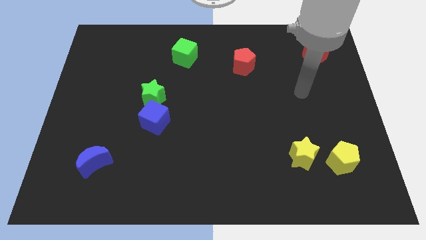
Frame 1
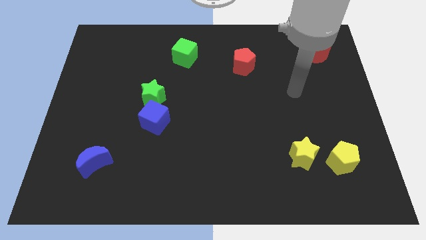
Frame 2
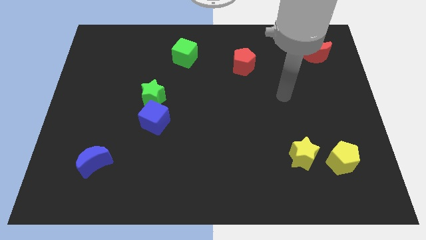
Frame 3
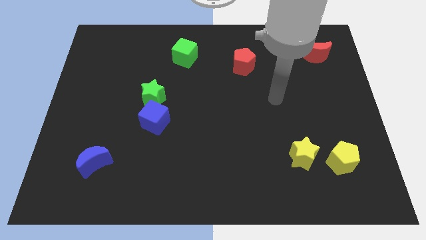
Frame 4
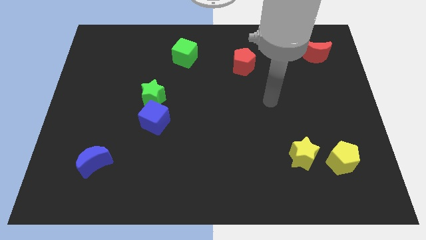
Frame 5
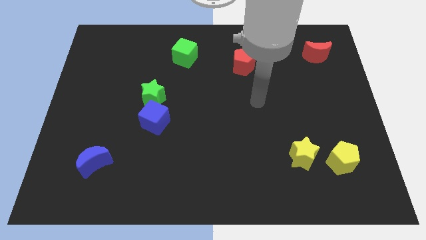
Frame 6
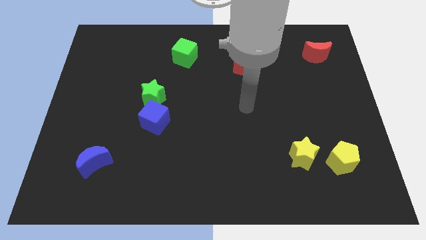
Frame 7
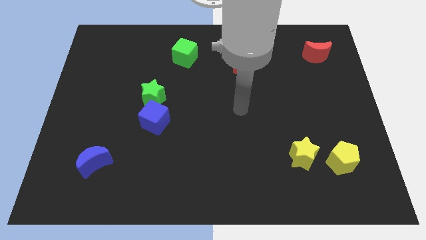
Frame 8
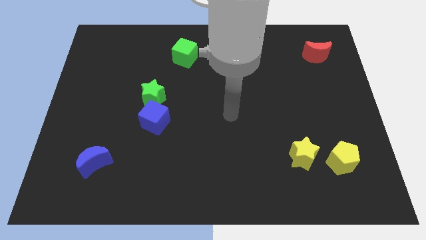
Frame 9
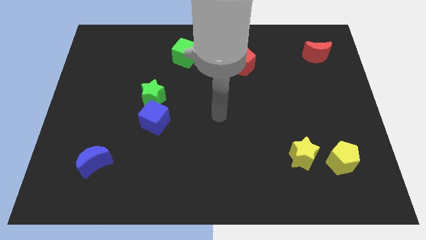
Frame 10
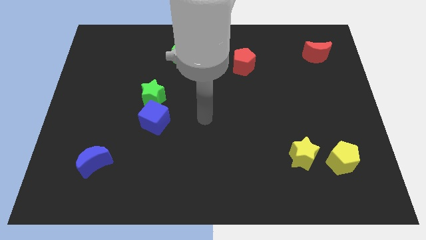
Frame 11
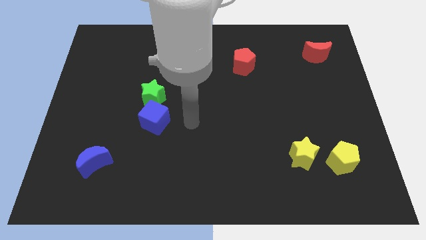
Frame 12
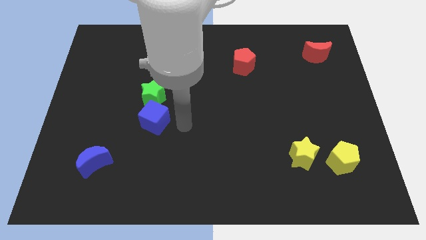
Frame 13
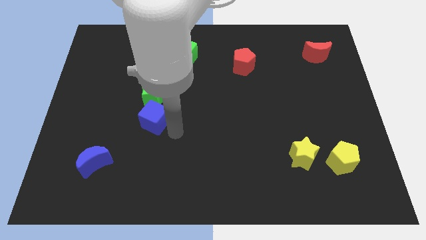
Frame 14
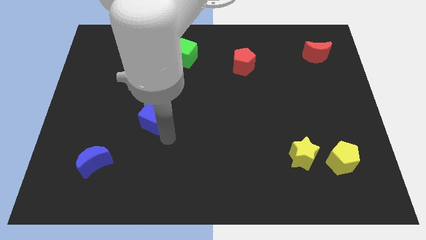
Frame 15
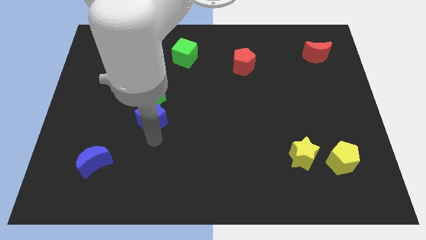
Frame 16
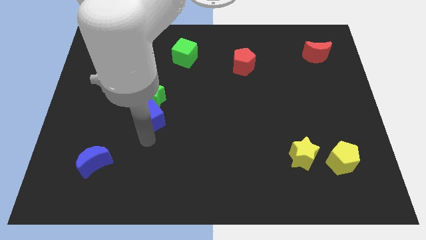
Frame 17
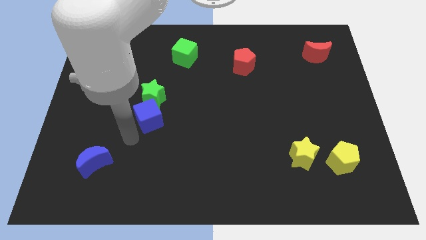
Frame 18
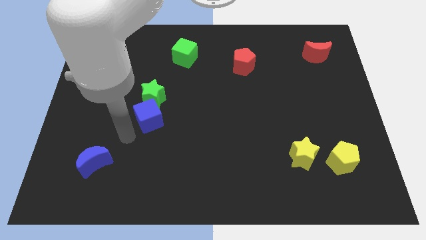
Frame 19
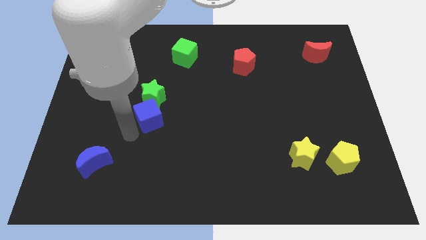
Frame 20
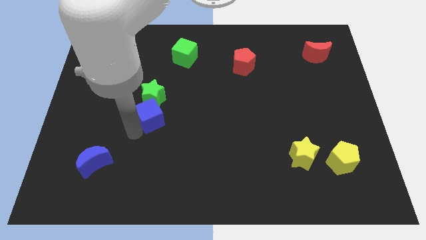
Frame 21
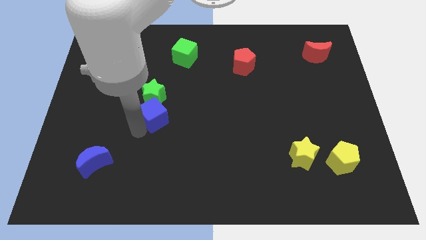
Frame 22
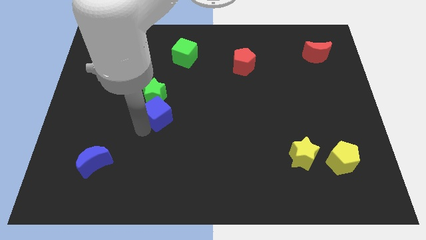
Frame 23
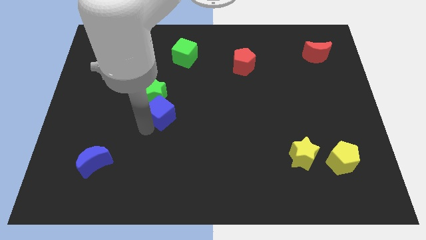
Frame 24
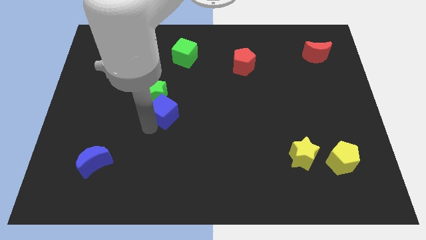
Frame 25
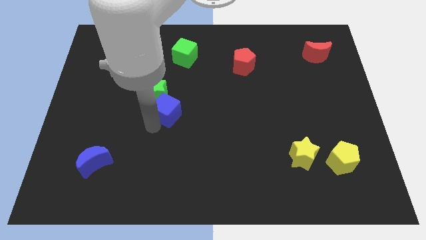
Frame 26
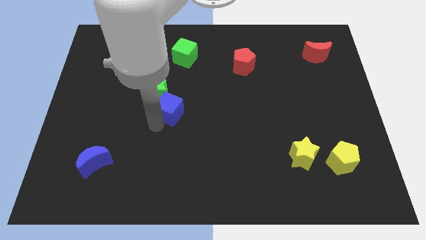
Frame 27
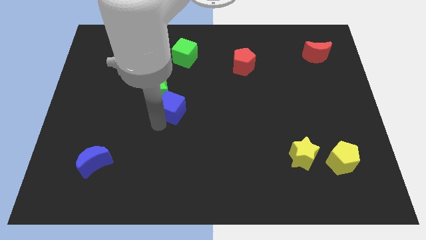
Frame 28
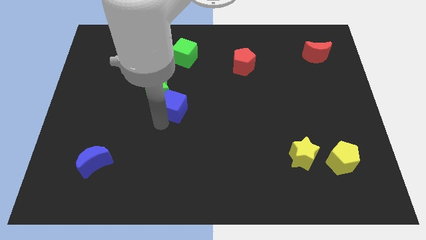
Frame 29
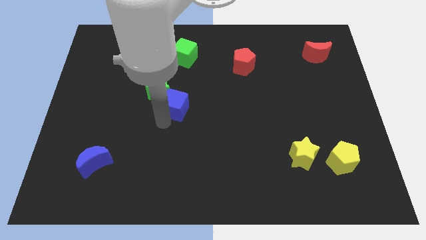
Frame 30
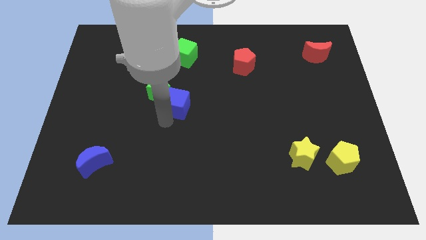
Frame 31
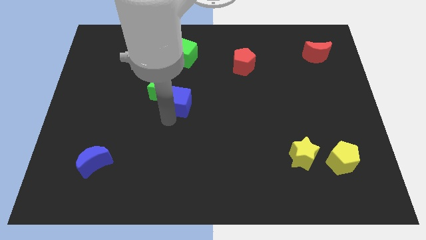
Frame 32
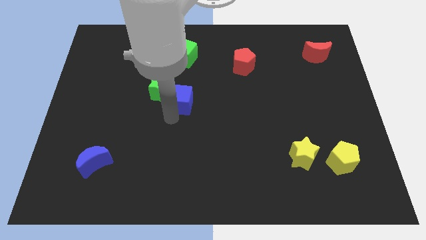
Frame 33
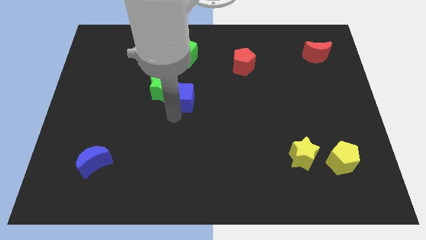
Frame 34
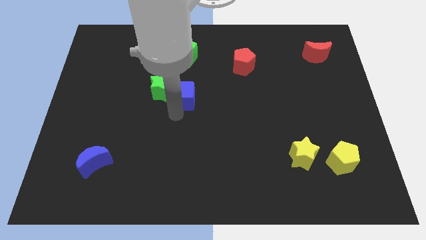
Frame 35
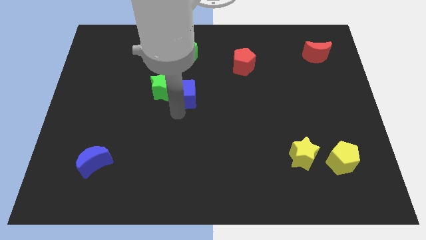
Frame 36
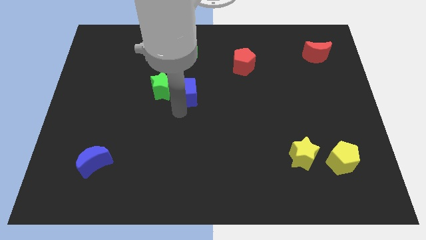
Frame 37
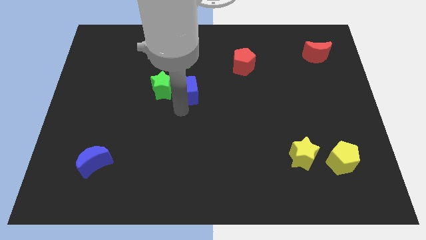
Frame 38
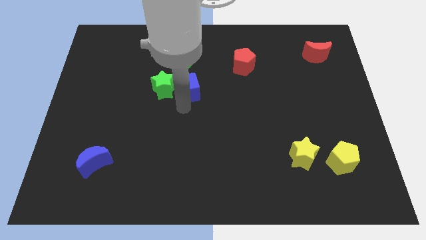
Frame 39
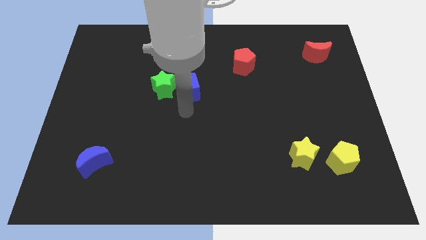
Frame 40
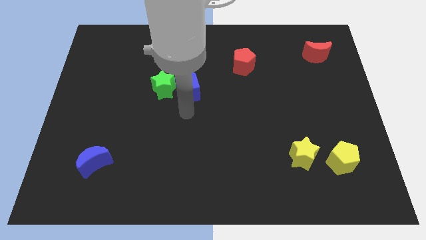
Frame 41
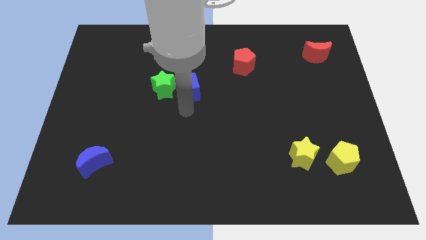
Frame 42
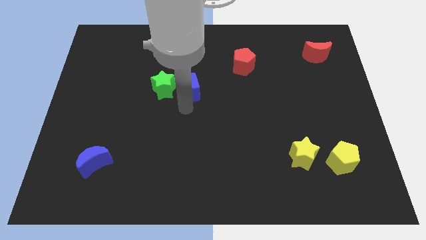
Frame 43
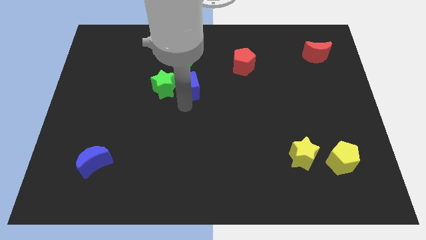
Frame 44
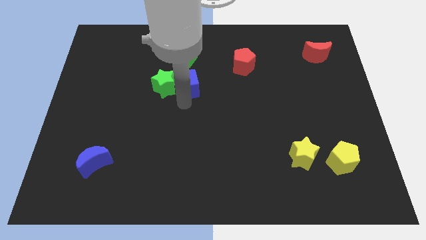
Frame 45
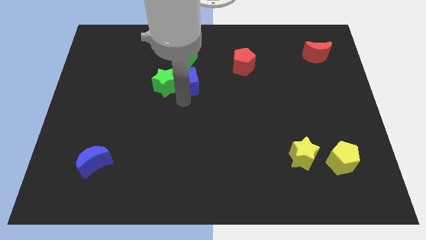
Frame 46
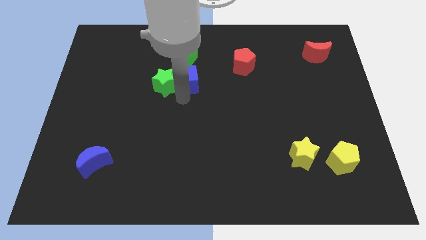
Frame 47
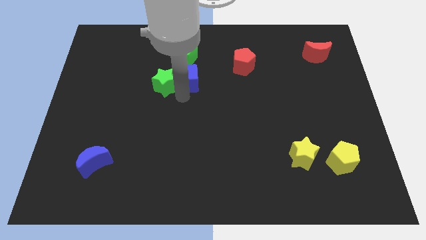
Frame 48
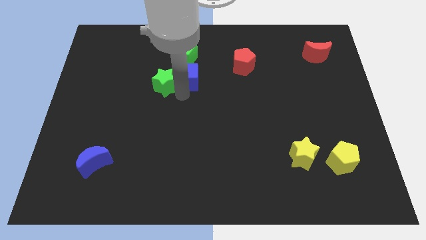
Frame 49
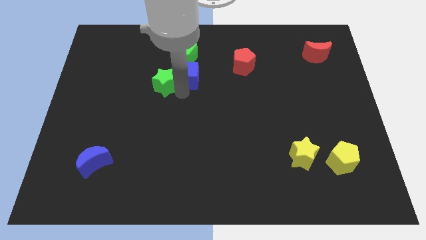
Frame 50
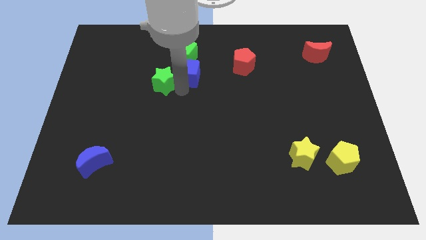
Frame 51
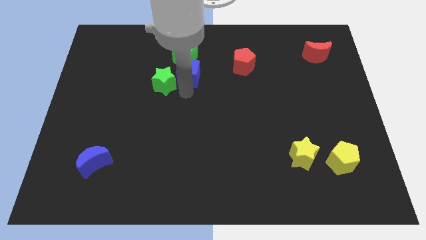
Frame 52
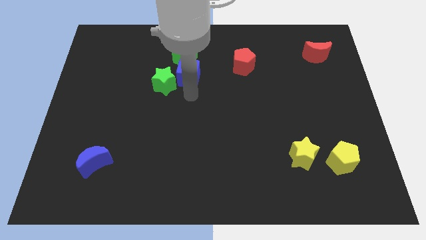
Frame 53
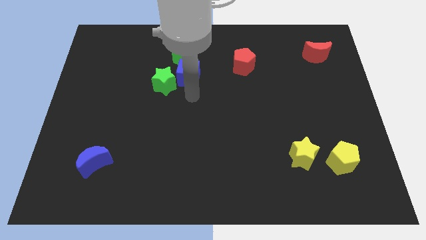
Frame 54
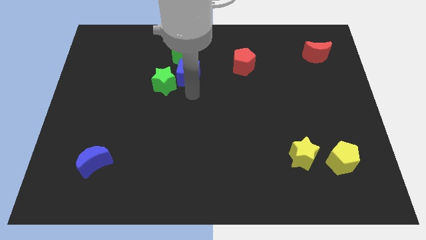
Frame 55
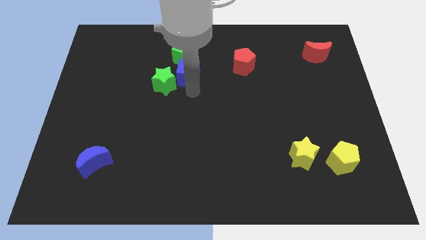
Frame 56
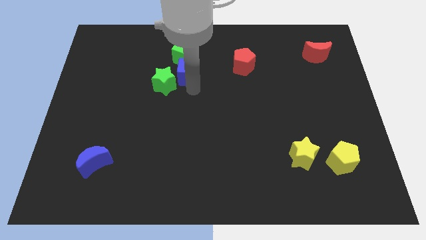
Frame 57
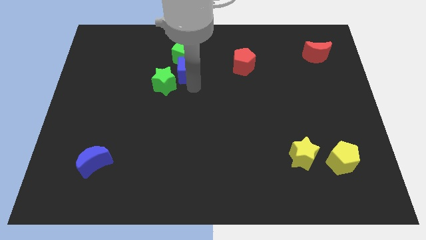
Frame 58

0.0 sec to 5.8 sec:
slide the blue cube next to the green cube

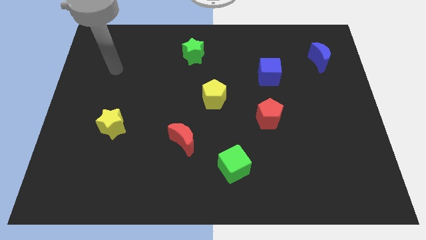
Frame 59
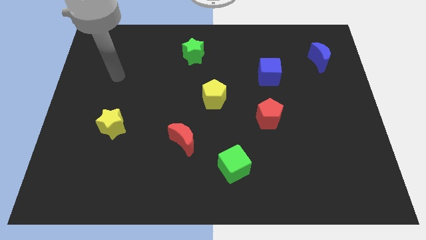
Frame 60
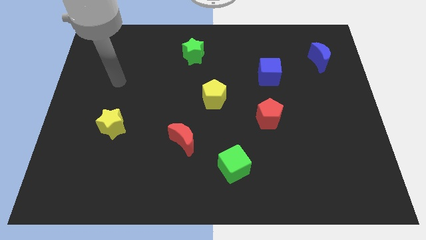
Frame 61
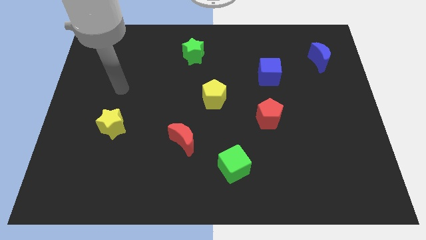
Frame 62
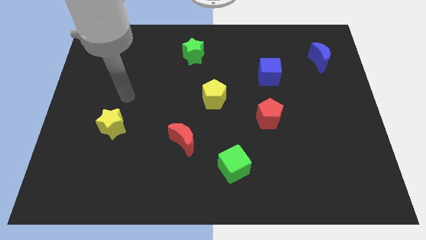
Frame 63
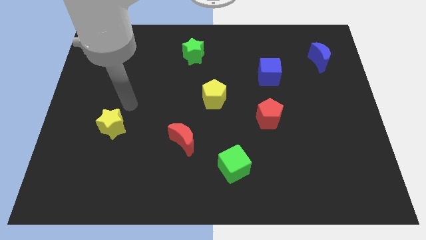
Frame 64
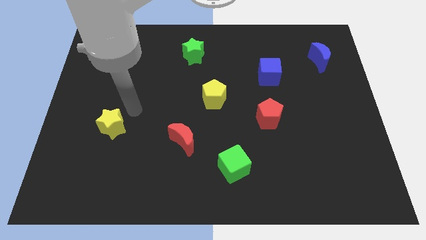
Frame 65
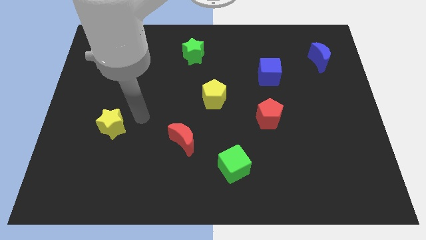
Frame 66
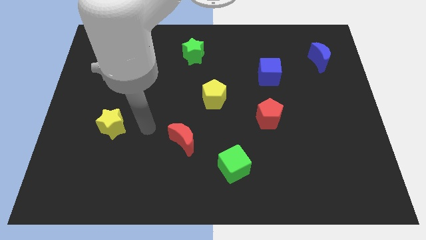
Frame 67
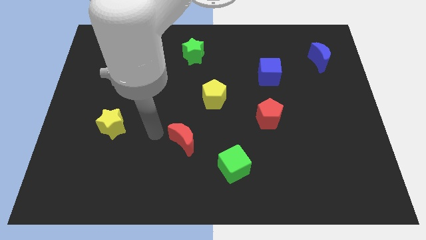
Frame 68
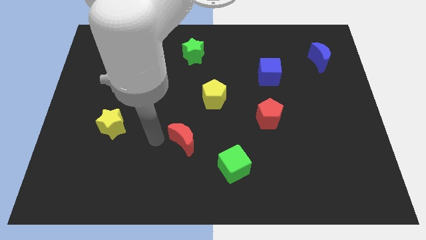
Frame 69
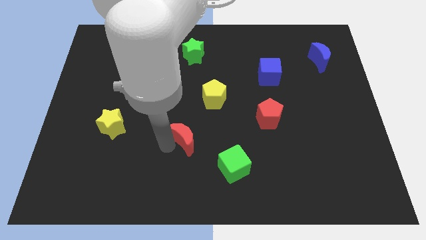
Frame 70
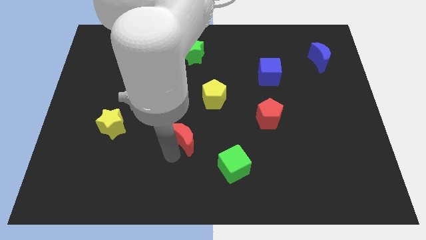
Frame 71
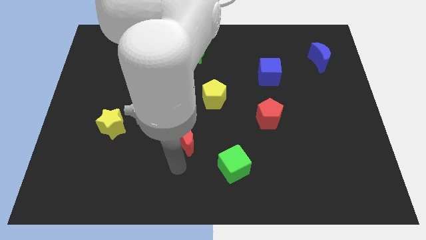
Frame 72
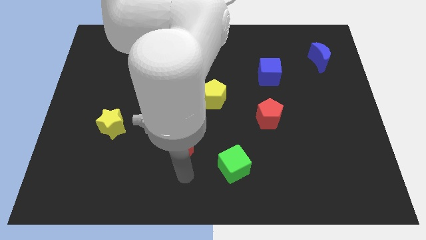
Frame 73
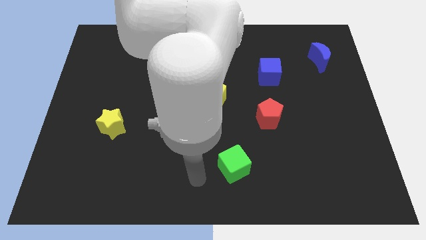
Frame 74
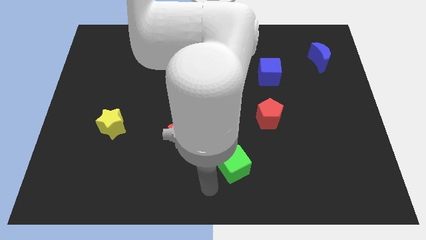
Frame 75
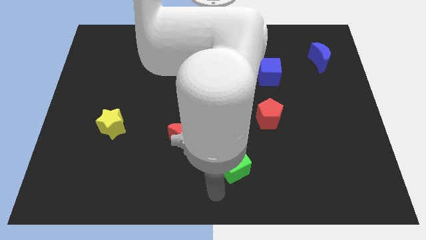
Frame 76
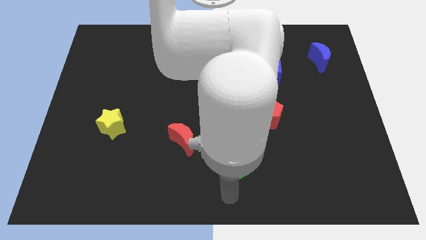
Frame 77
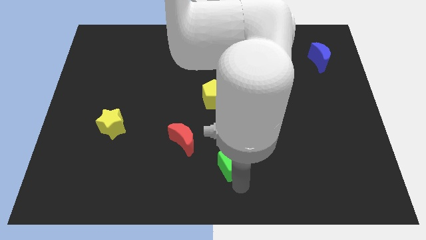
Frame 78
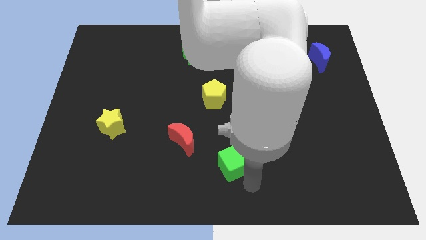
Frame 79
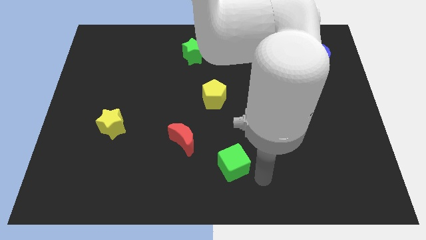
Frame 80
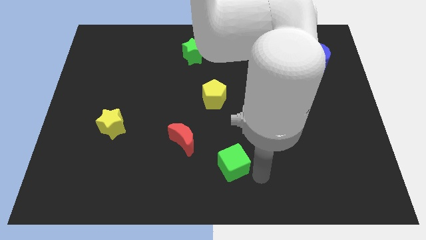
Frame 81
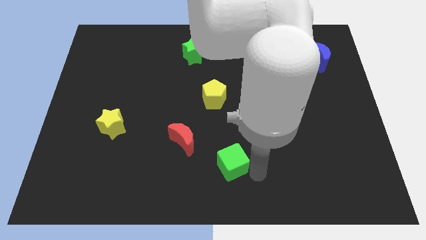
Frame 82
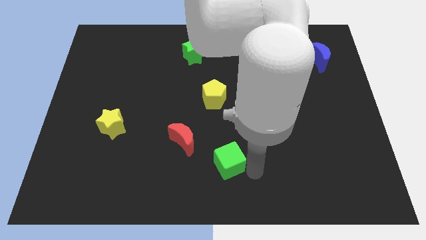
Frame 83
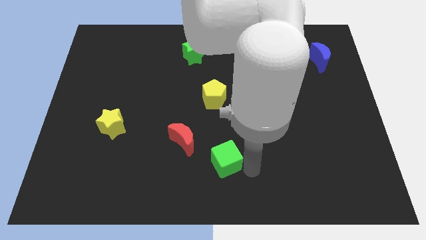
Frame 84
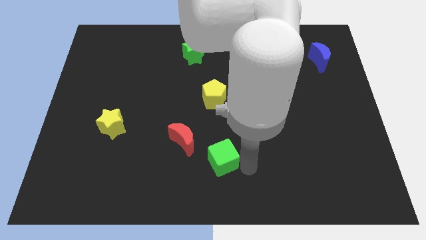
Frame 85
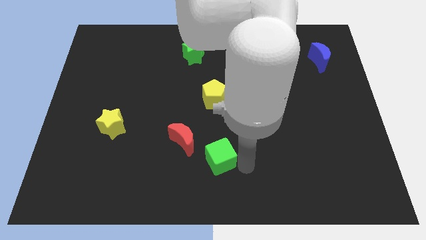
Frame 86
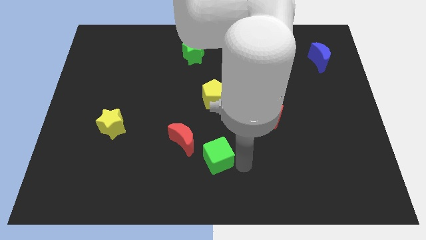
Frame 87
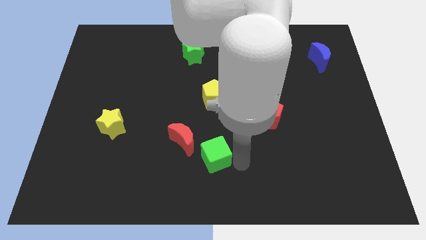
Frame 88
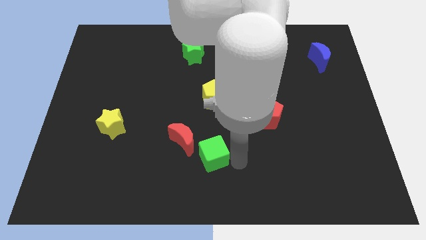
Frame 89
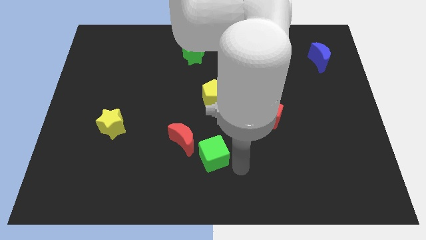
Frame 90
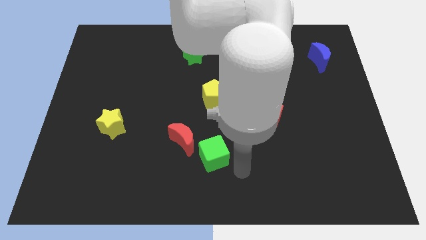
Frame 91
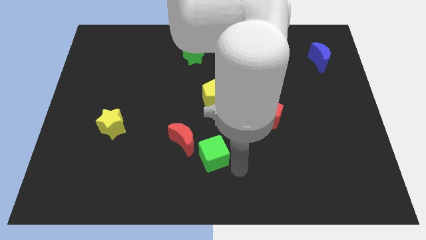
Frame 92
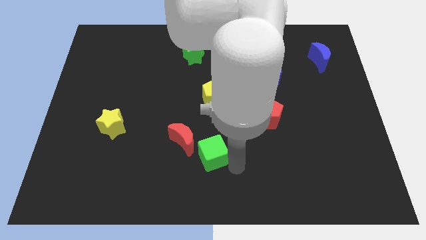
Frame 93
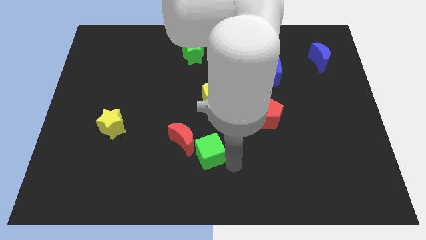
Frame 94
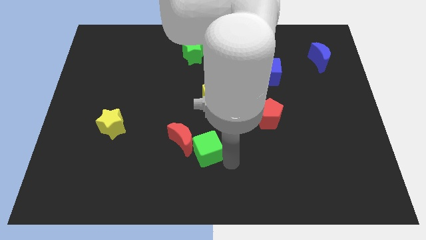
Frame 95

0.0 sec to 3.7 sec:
push the green cube close to the red moon
